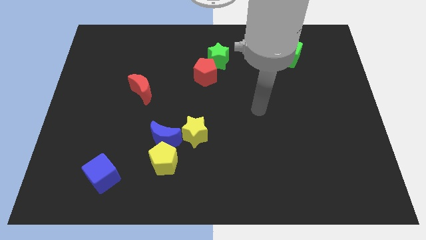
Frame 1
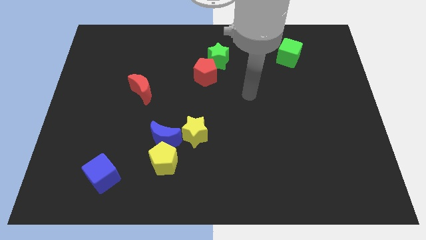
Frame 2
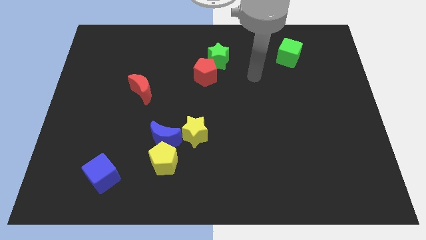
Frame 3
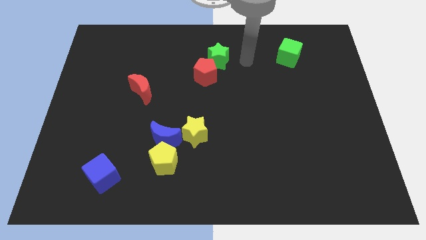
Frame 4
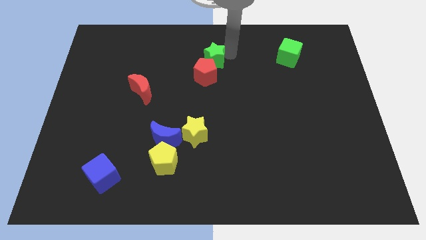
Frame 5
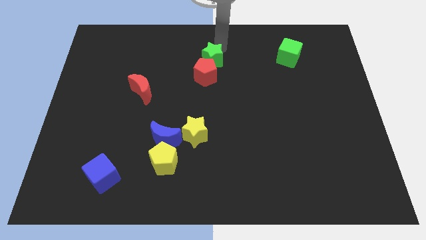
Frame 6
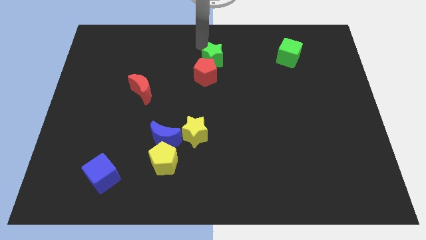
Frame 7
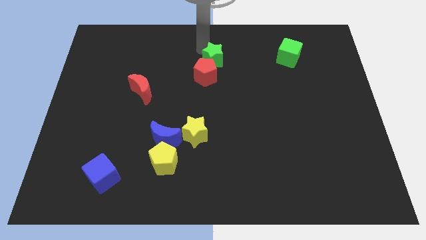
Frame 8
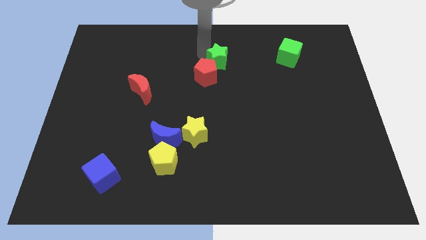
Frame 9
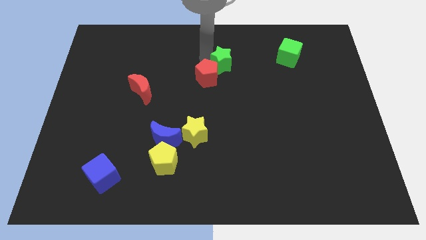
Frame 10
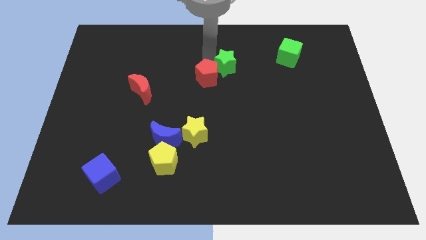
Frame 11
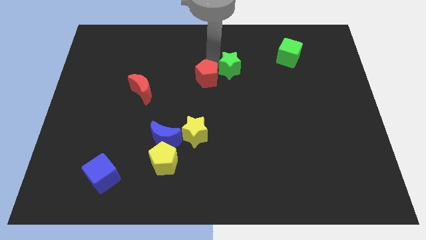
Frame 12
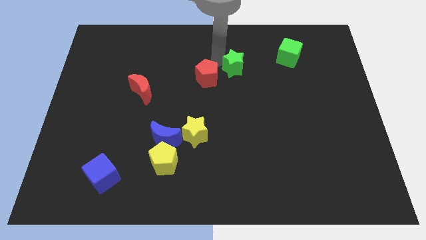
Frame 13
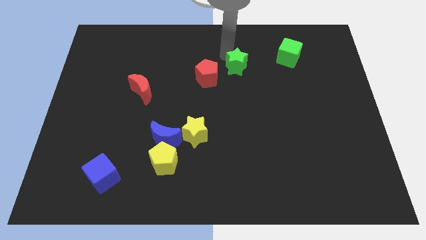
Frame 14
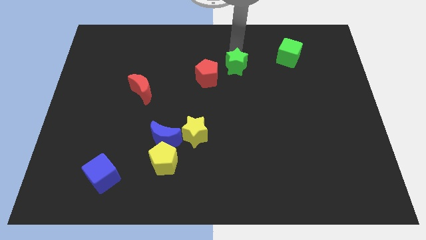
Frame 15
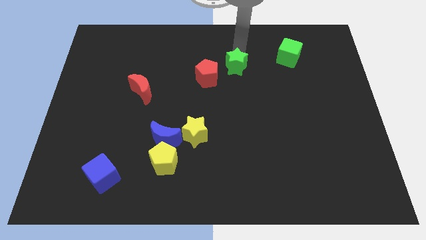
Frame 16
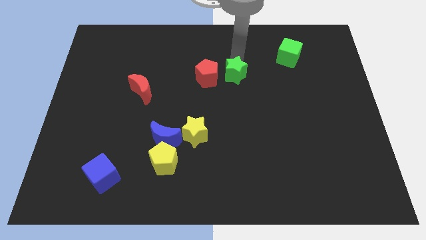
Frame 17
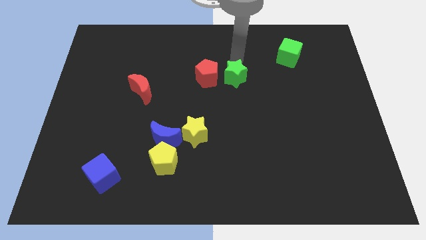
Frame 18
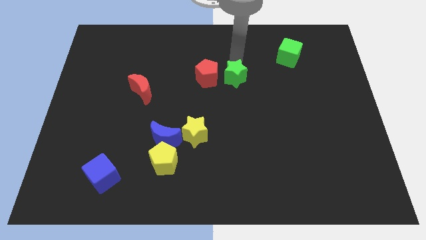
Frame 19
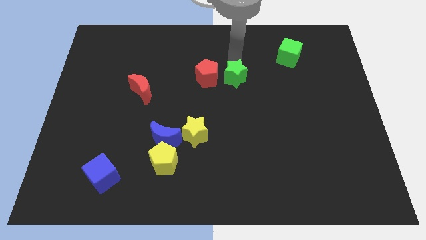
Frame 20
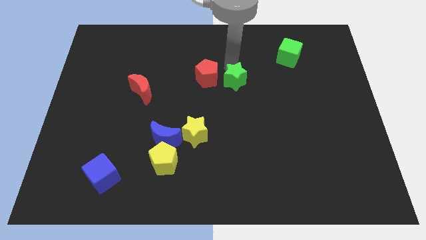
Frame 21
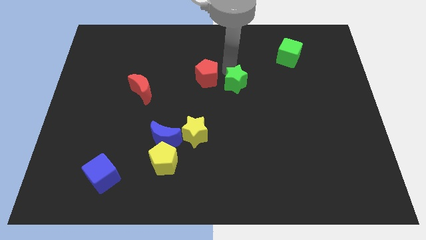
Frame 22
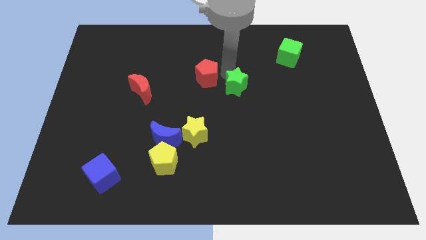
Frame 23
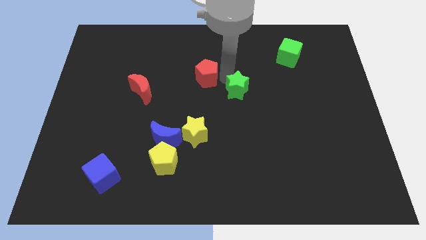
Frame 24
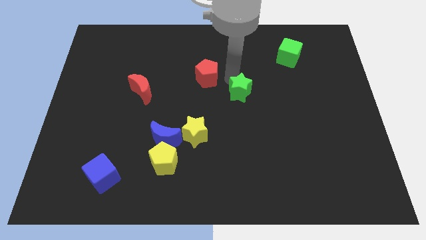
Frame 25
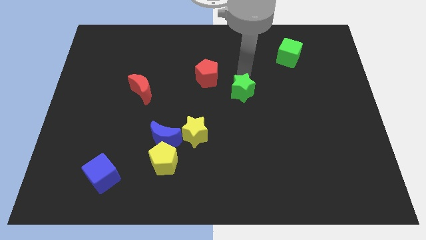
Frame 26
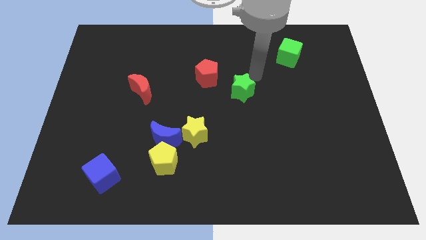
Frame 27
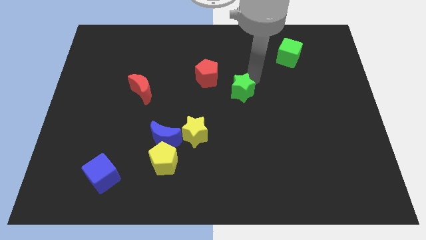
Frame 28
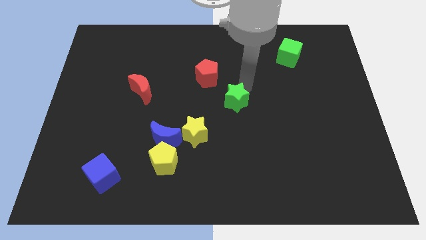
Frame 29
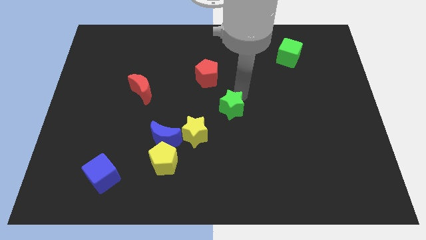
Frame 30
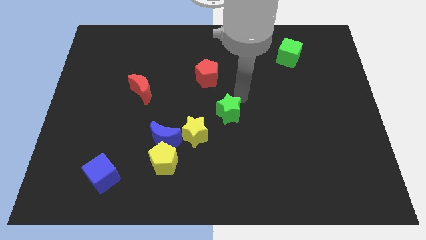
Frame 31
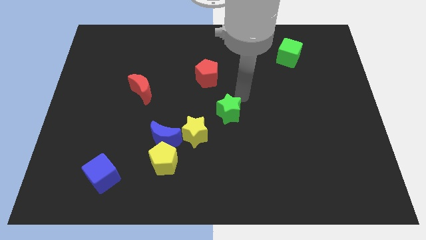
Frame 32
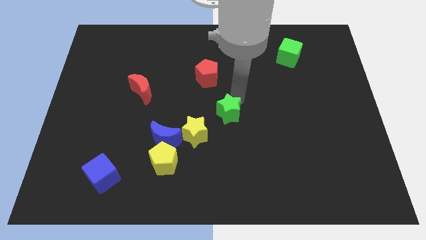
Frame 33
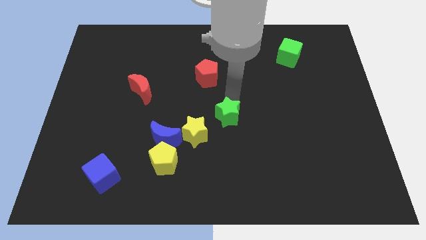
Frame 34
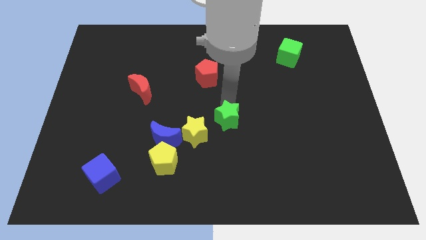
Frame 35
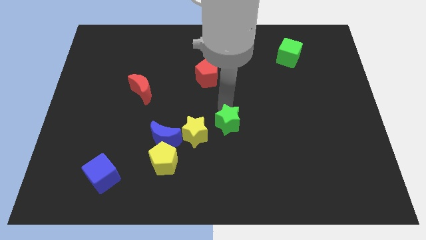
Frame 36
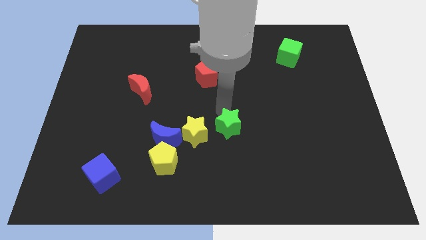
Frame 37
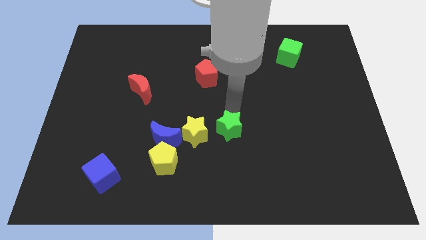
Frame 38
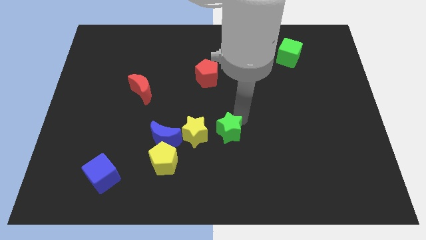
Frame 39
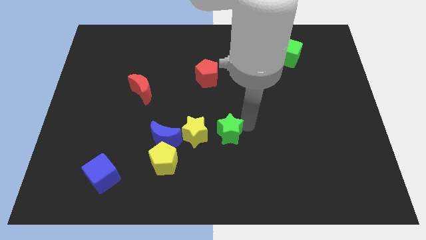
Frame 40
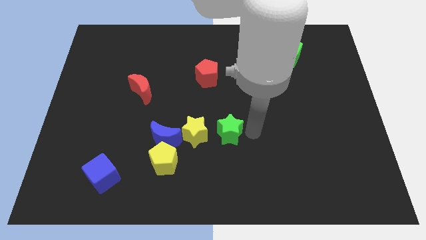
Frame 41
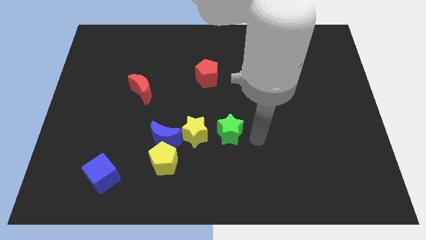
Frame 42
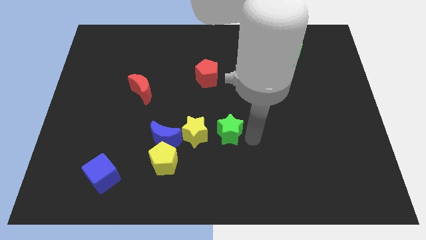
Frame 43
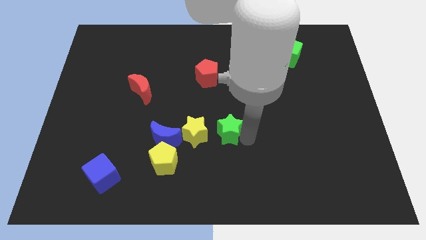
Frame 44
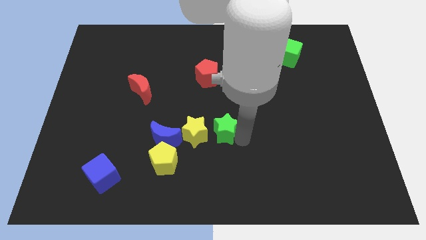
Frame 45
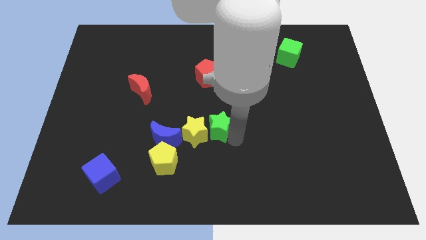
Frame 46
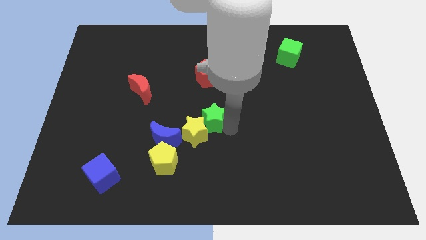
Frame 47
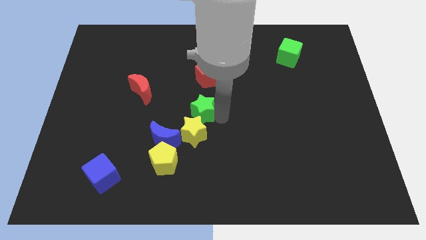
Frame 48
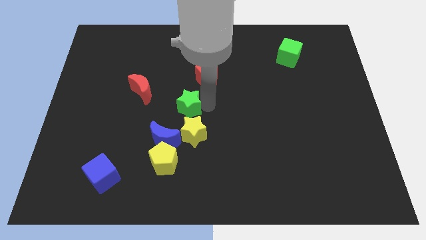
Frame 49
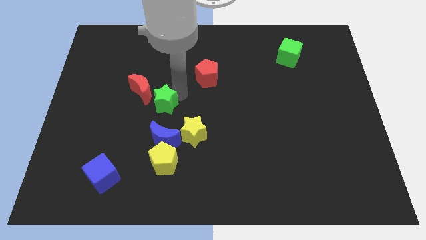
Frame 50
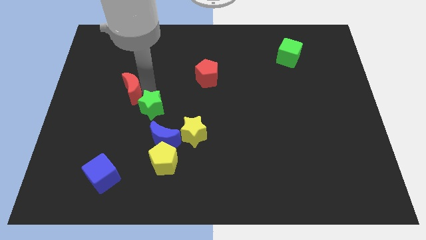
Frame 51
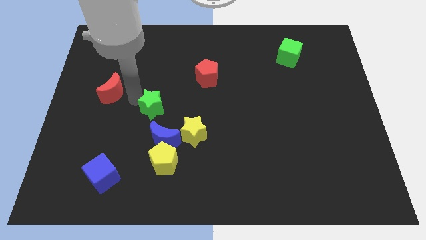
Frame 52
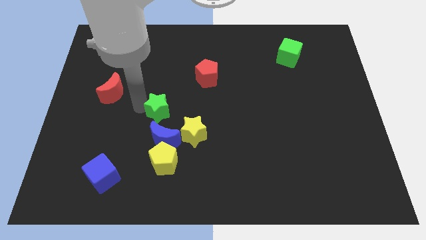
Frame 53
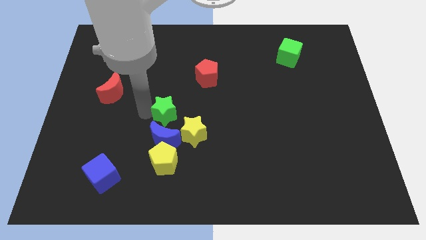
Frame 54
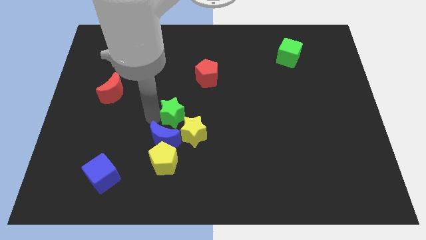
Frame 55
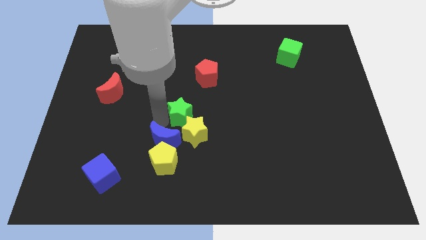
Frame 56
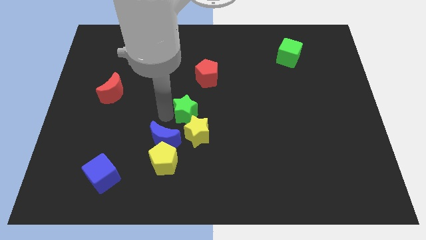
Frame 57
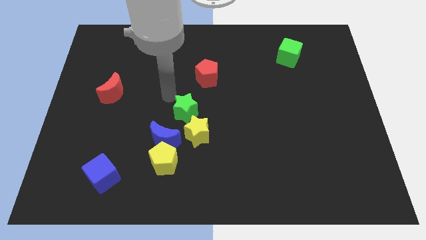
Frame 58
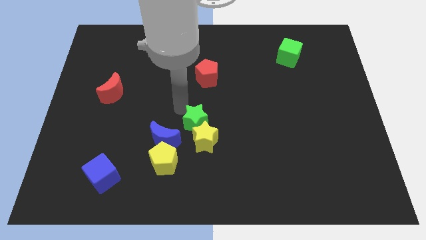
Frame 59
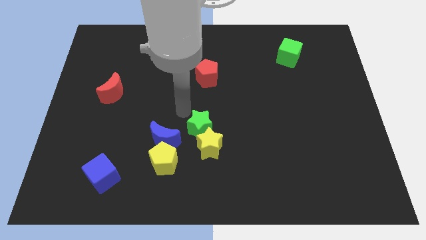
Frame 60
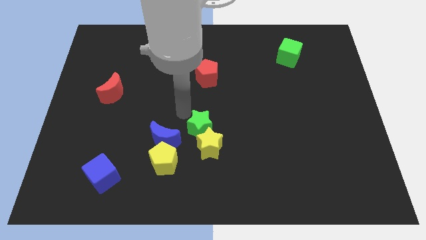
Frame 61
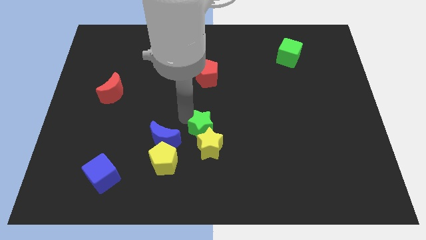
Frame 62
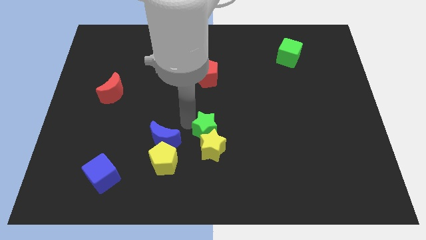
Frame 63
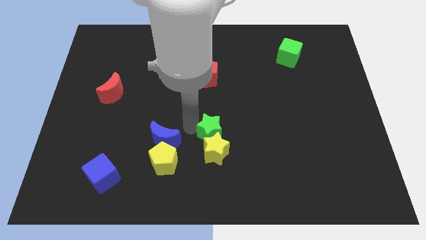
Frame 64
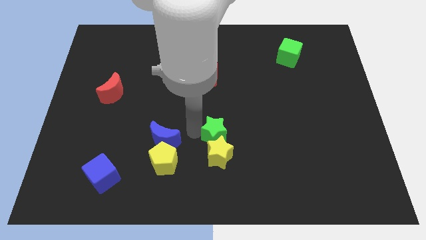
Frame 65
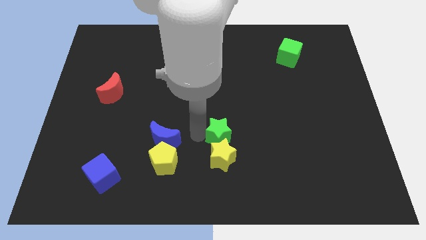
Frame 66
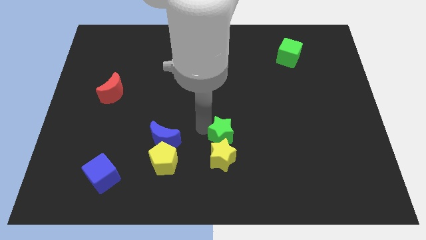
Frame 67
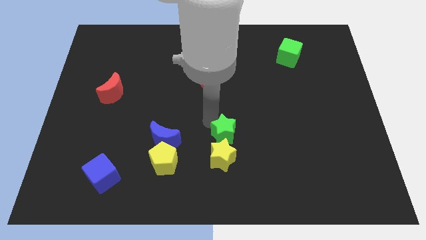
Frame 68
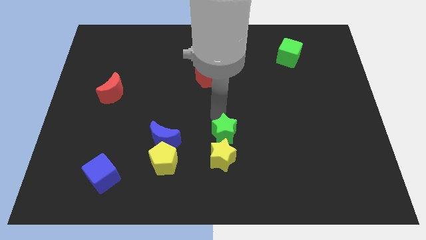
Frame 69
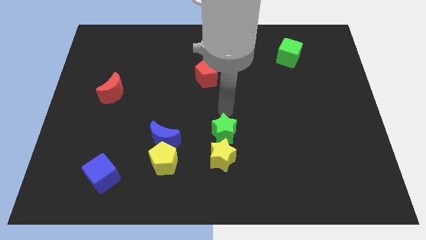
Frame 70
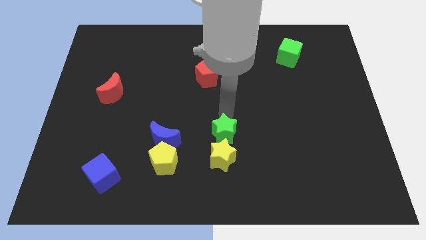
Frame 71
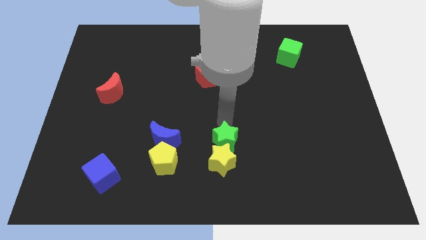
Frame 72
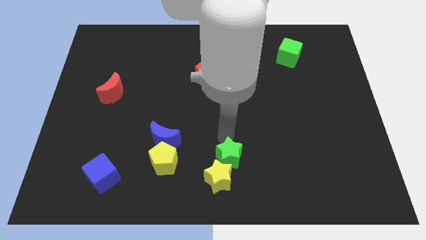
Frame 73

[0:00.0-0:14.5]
move the green star to the bottom
